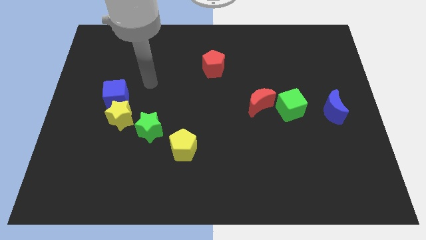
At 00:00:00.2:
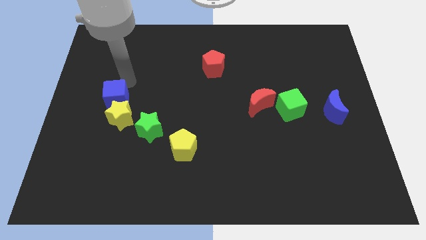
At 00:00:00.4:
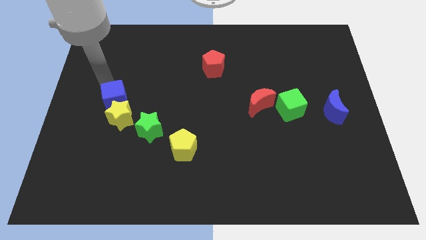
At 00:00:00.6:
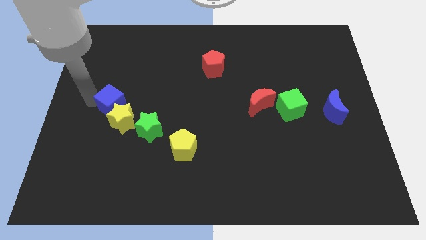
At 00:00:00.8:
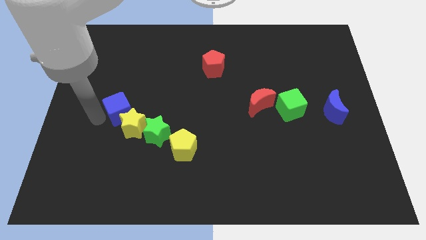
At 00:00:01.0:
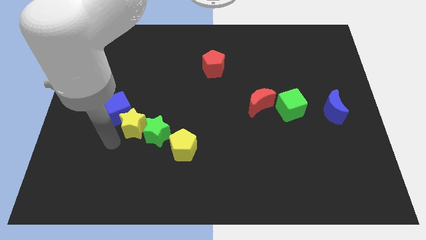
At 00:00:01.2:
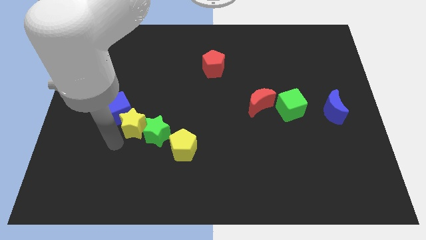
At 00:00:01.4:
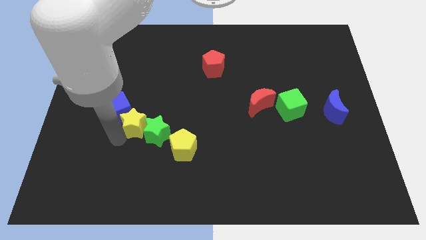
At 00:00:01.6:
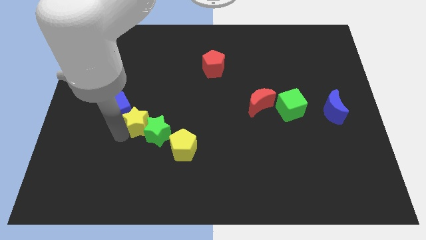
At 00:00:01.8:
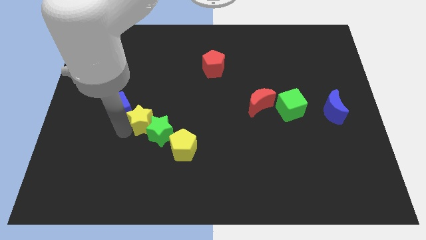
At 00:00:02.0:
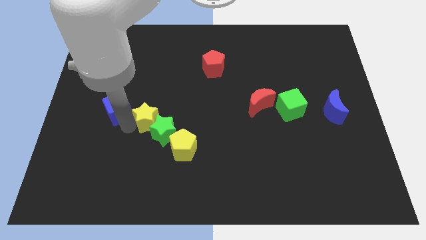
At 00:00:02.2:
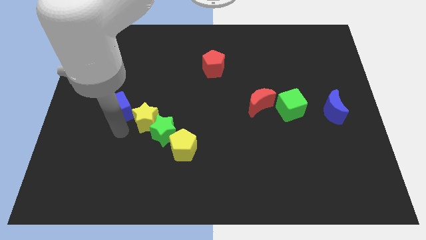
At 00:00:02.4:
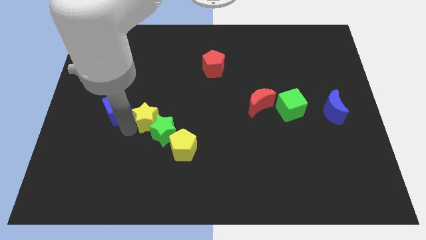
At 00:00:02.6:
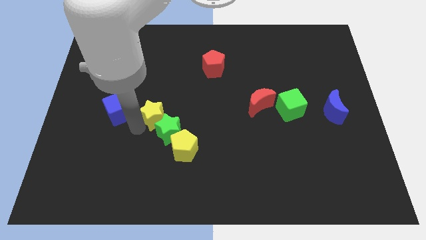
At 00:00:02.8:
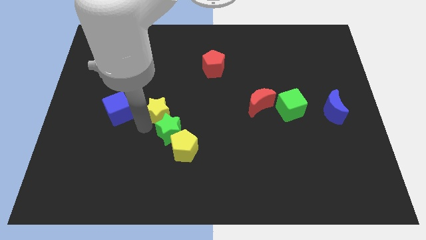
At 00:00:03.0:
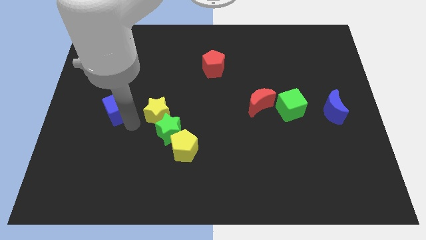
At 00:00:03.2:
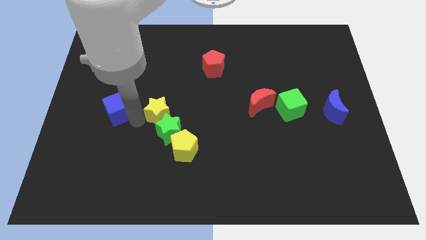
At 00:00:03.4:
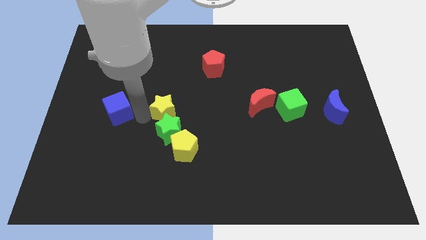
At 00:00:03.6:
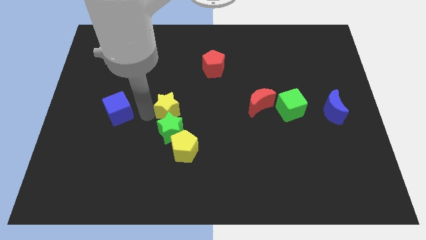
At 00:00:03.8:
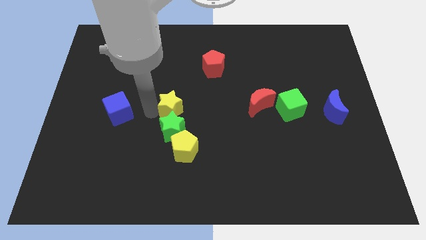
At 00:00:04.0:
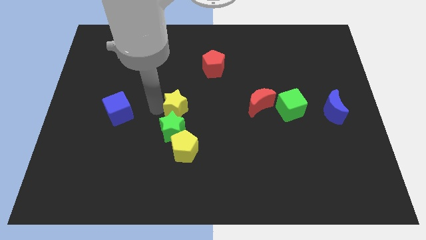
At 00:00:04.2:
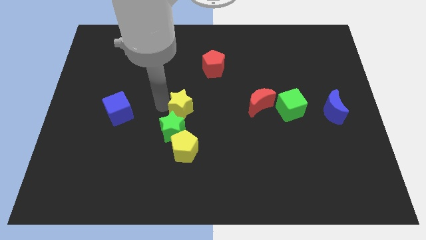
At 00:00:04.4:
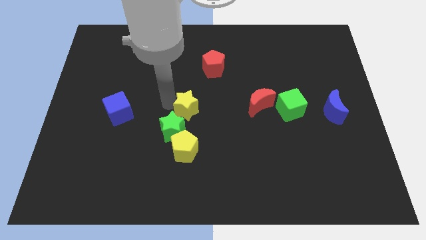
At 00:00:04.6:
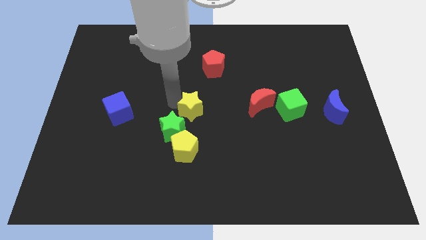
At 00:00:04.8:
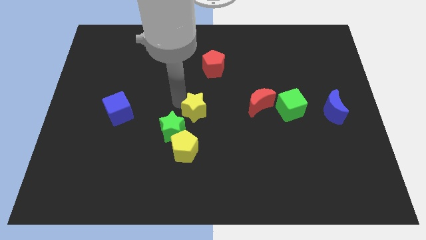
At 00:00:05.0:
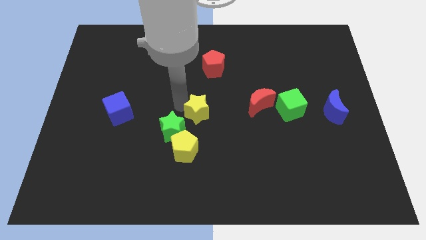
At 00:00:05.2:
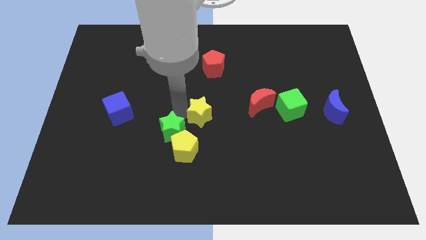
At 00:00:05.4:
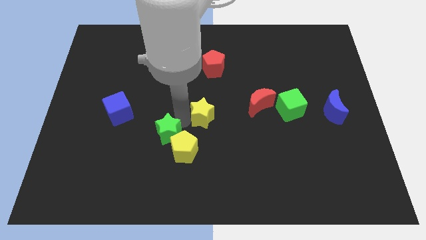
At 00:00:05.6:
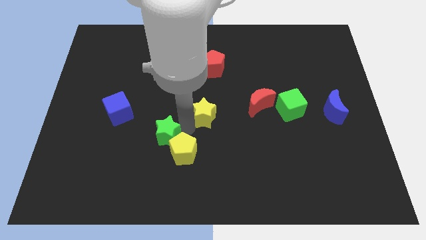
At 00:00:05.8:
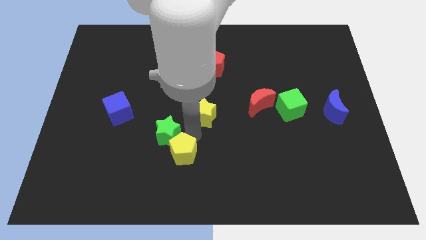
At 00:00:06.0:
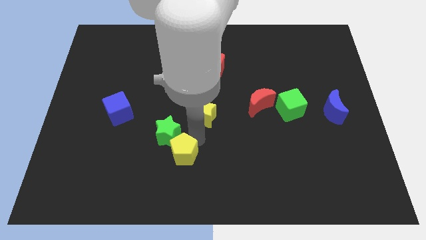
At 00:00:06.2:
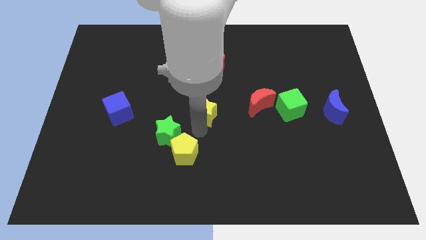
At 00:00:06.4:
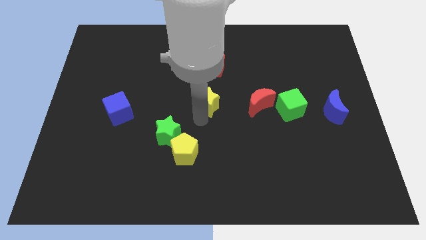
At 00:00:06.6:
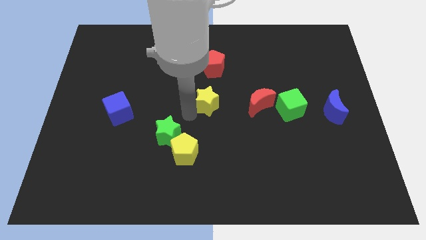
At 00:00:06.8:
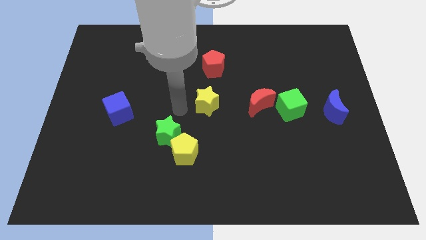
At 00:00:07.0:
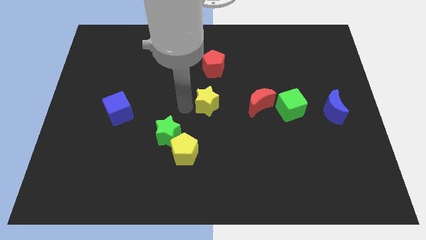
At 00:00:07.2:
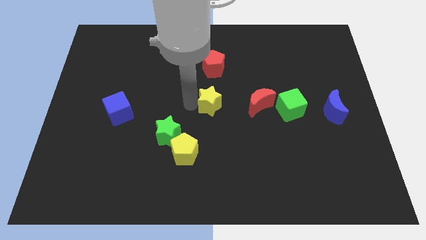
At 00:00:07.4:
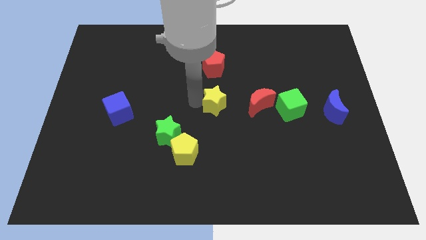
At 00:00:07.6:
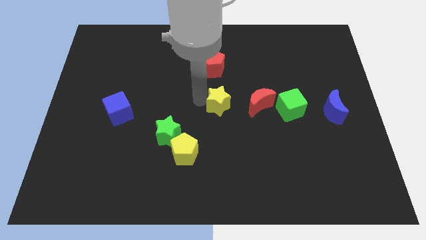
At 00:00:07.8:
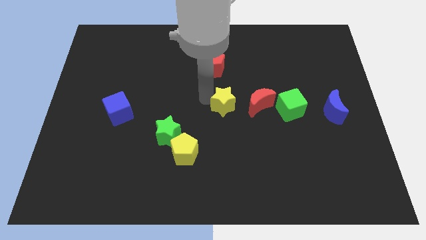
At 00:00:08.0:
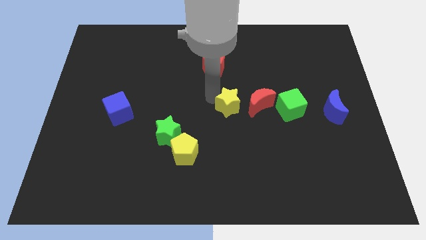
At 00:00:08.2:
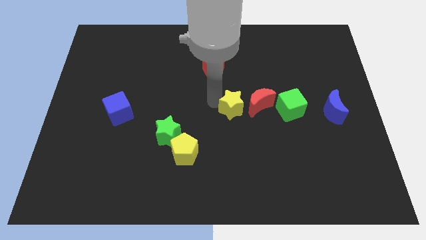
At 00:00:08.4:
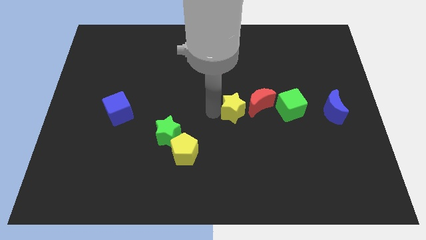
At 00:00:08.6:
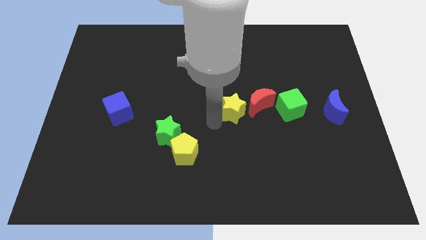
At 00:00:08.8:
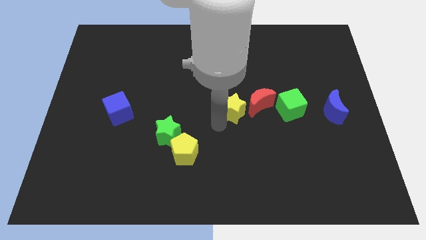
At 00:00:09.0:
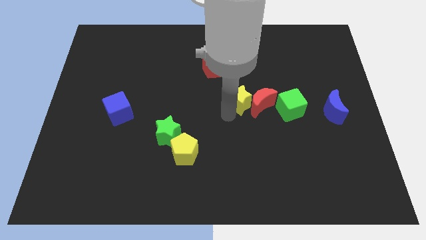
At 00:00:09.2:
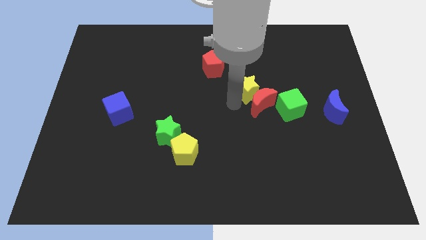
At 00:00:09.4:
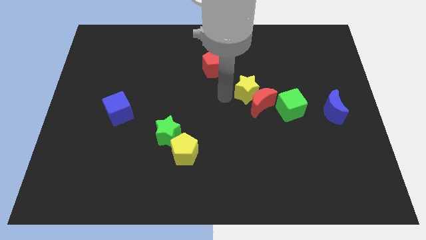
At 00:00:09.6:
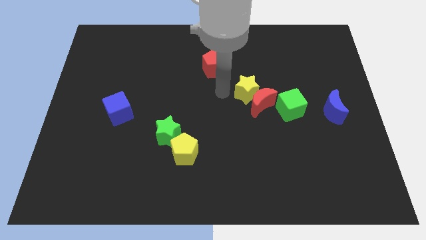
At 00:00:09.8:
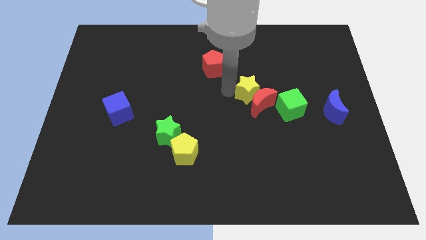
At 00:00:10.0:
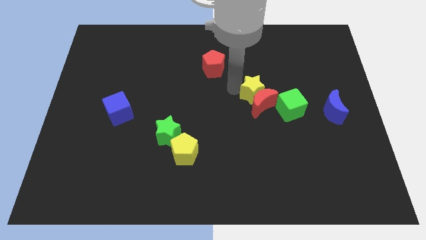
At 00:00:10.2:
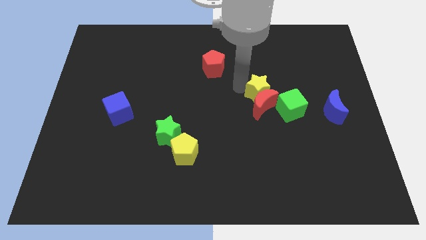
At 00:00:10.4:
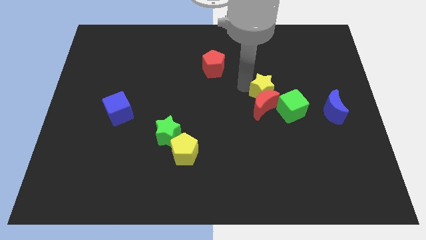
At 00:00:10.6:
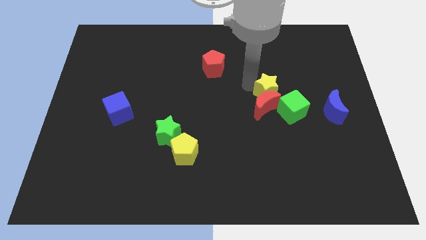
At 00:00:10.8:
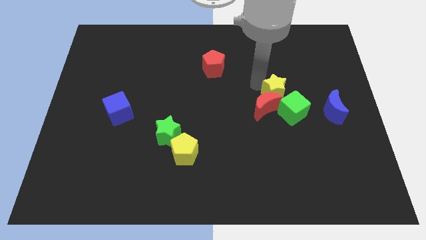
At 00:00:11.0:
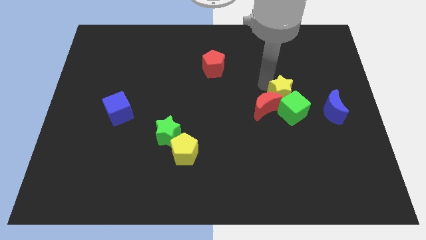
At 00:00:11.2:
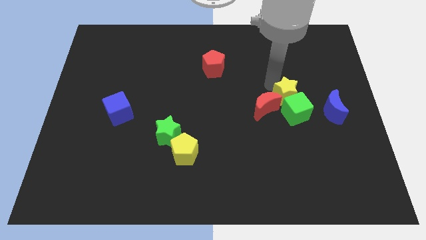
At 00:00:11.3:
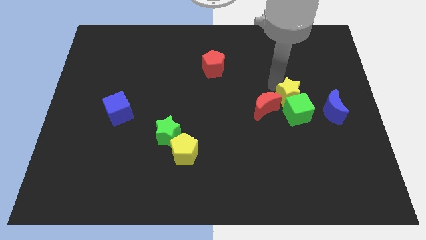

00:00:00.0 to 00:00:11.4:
move the yellow star to the top right of the green cube
